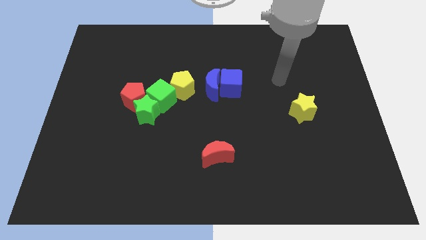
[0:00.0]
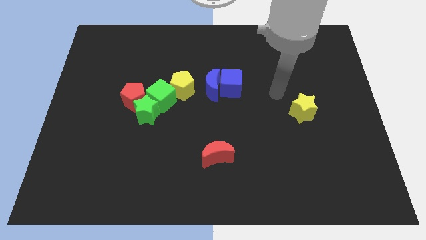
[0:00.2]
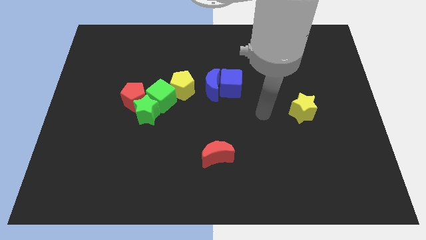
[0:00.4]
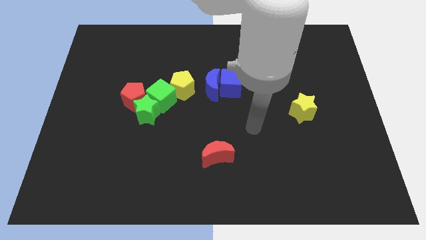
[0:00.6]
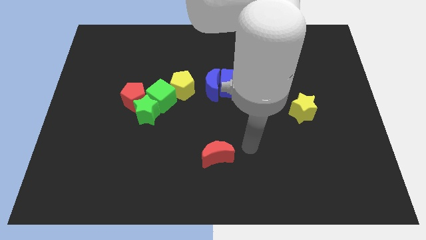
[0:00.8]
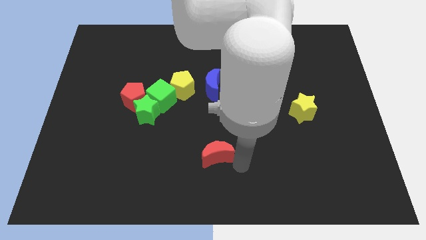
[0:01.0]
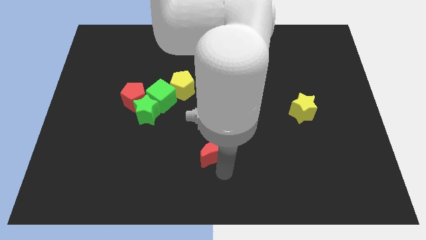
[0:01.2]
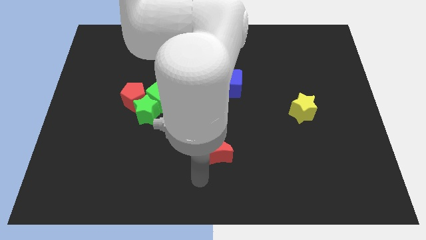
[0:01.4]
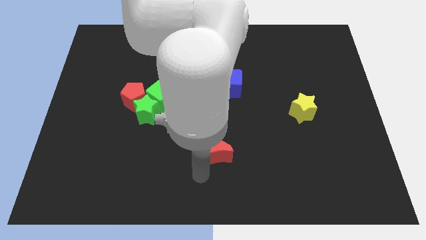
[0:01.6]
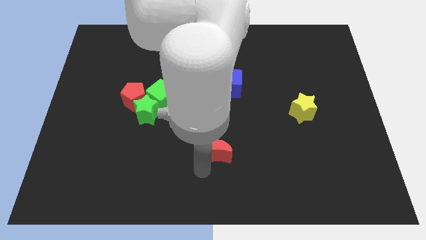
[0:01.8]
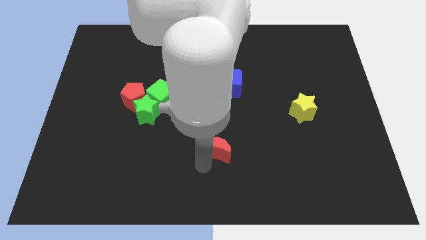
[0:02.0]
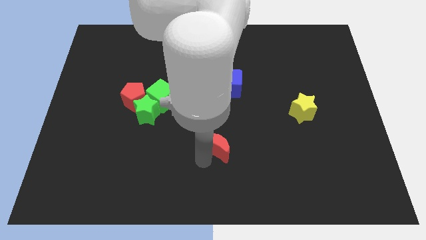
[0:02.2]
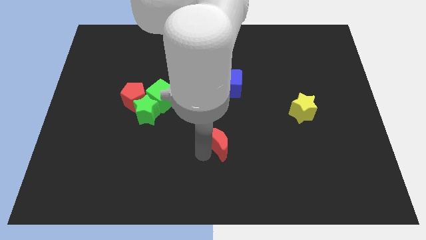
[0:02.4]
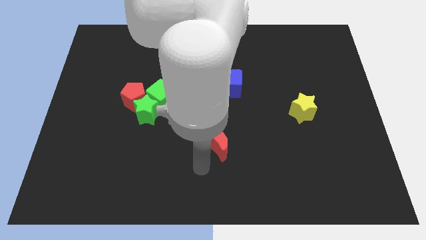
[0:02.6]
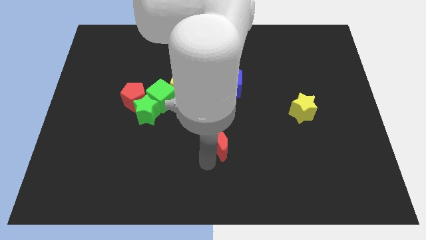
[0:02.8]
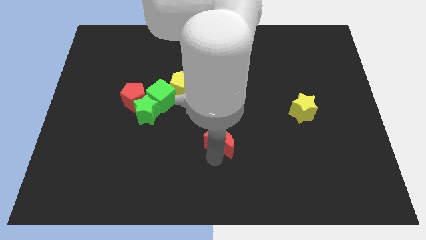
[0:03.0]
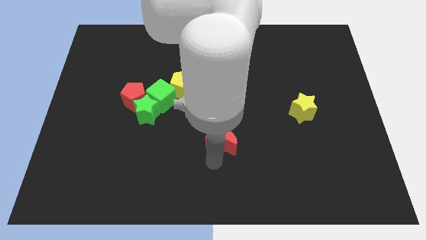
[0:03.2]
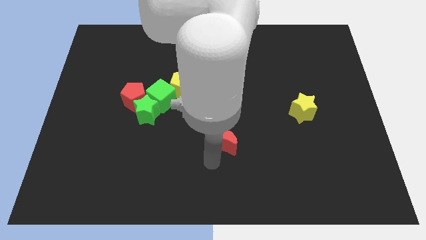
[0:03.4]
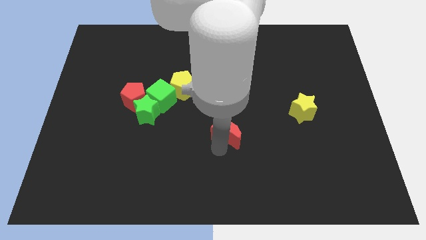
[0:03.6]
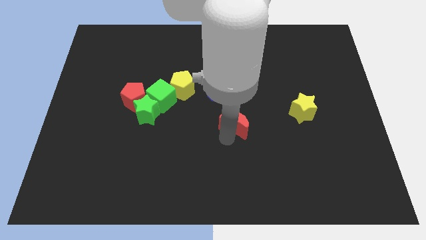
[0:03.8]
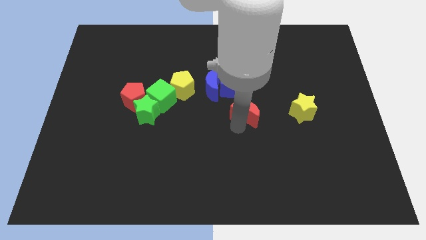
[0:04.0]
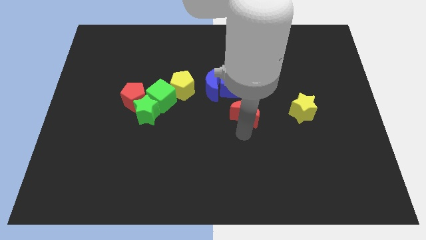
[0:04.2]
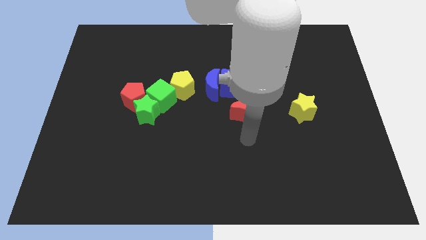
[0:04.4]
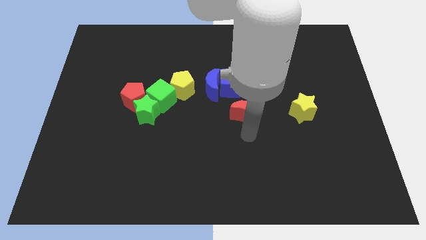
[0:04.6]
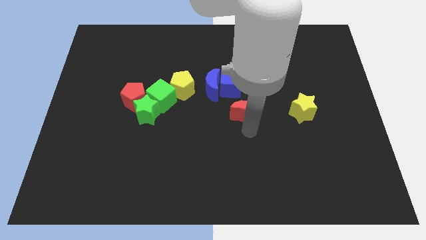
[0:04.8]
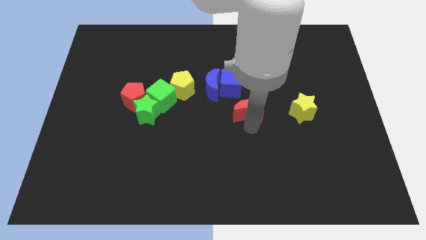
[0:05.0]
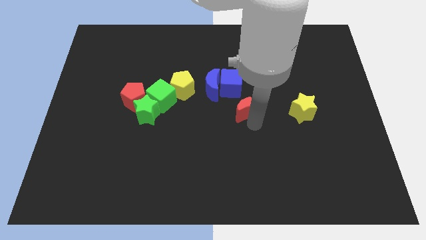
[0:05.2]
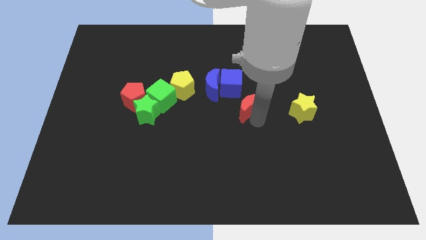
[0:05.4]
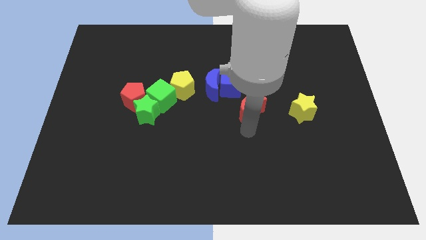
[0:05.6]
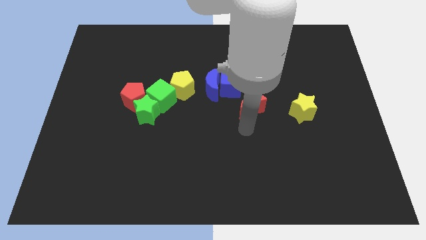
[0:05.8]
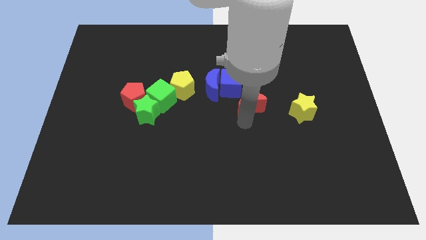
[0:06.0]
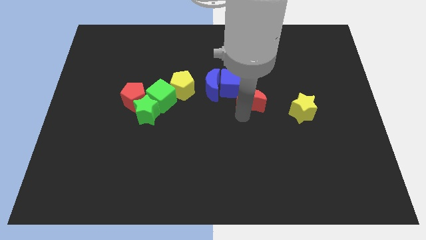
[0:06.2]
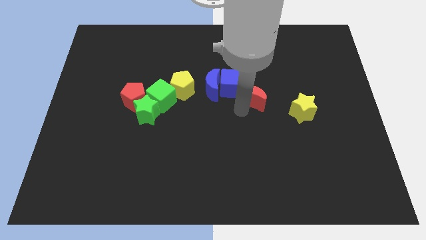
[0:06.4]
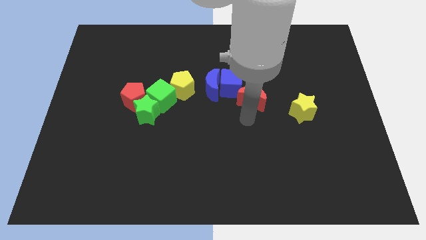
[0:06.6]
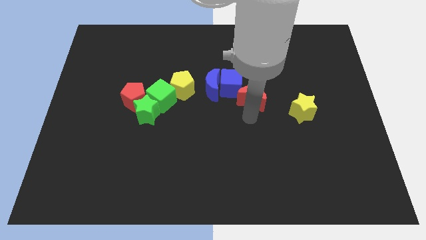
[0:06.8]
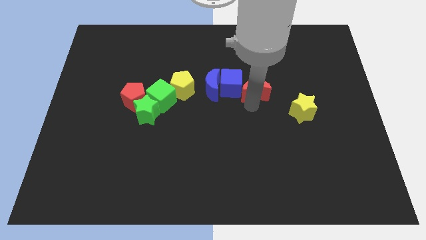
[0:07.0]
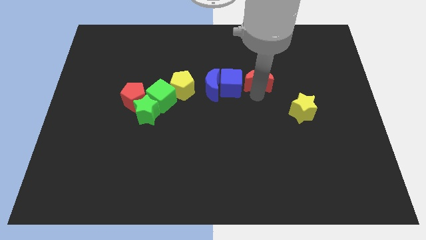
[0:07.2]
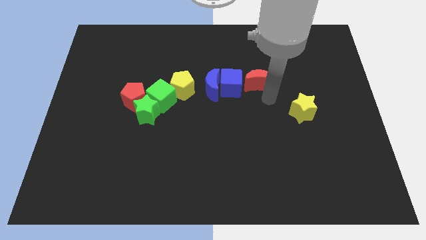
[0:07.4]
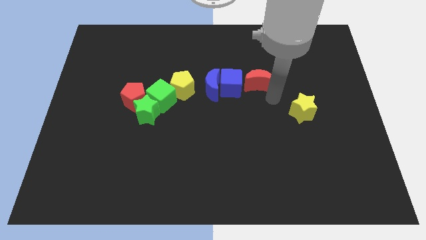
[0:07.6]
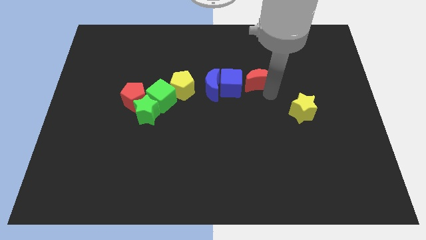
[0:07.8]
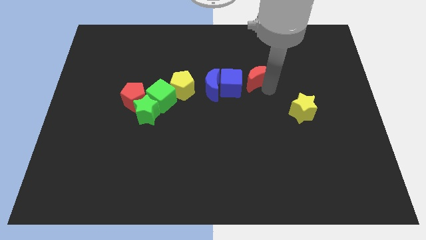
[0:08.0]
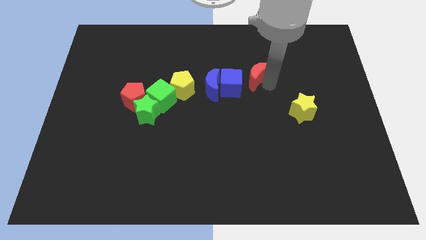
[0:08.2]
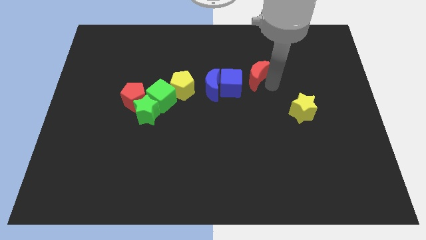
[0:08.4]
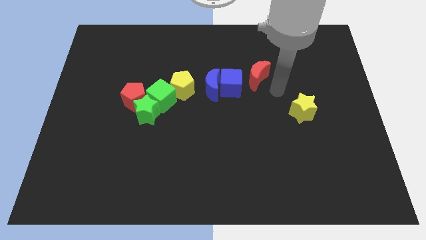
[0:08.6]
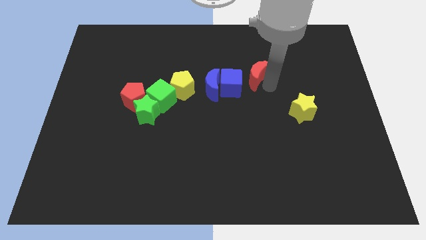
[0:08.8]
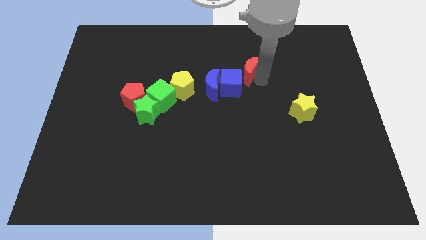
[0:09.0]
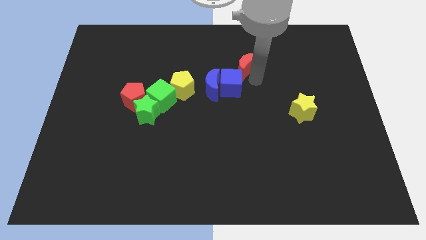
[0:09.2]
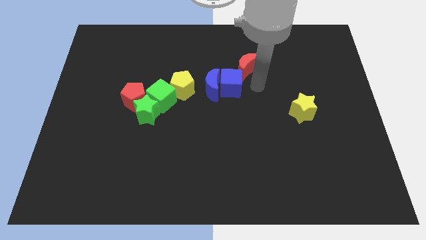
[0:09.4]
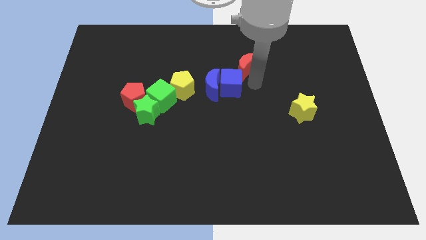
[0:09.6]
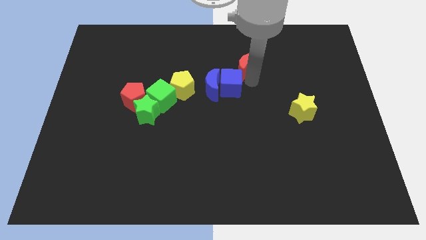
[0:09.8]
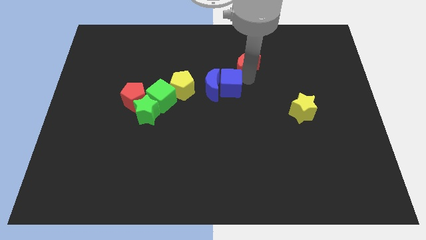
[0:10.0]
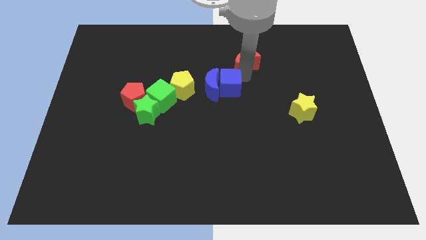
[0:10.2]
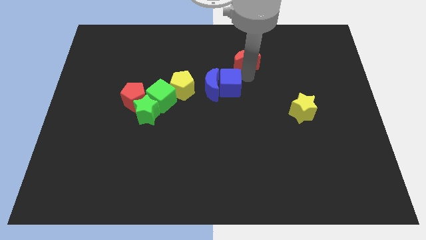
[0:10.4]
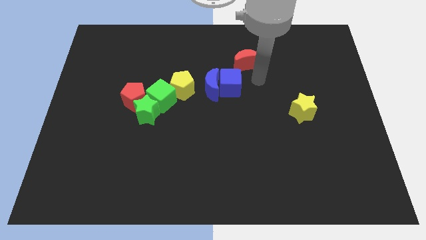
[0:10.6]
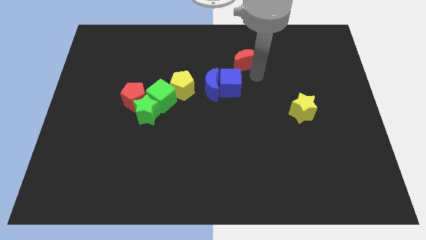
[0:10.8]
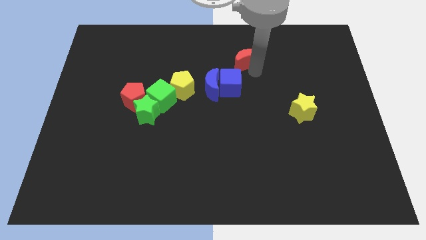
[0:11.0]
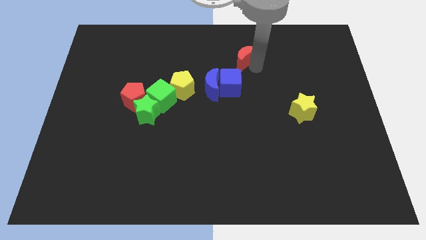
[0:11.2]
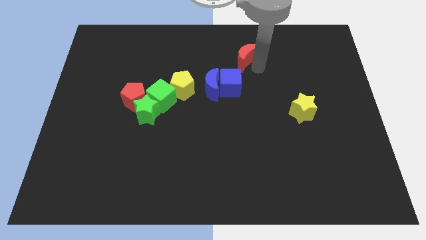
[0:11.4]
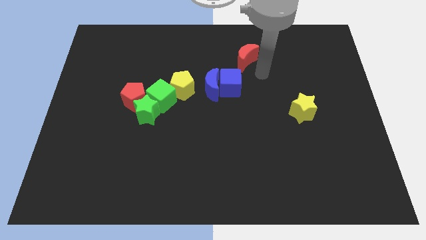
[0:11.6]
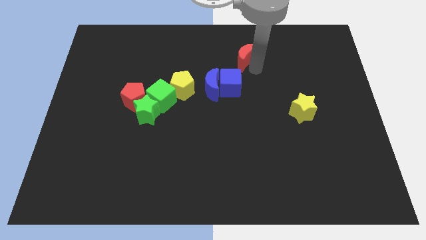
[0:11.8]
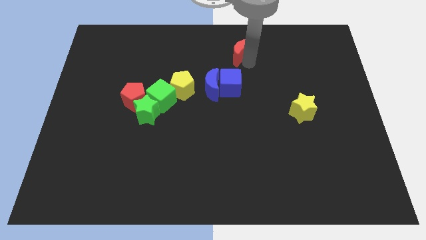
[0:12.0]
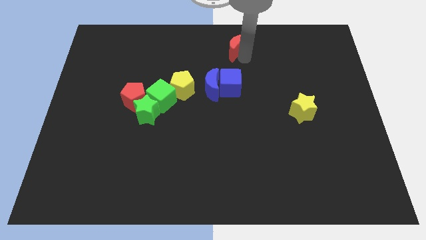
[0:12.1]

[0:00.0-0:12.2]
slide the red moon to the towards your base

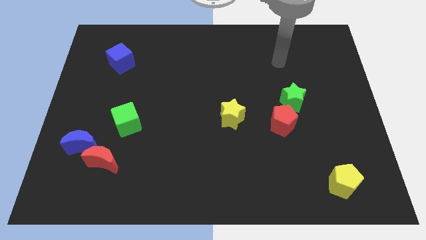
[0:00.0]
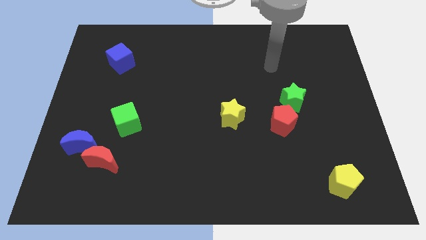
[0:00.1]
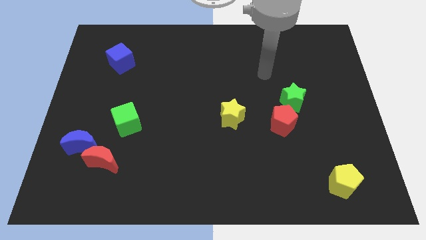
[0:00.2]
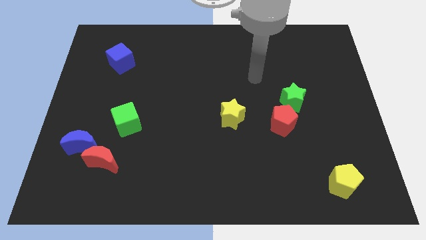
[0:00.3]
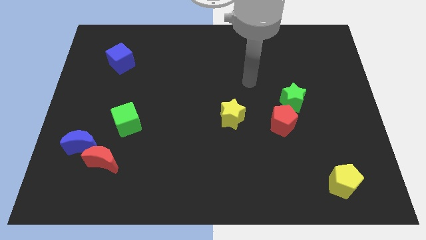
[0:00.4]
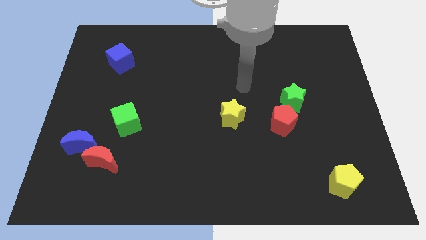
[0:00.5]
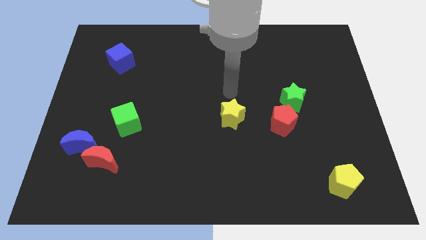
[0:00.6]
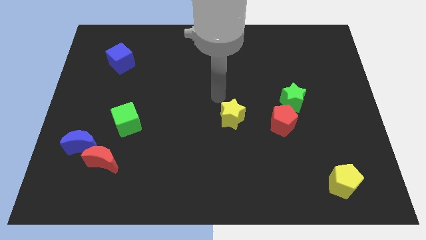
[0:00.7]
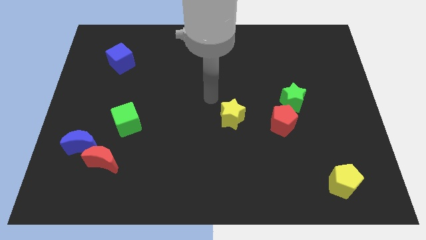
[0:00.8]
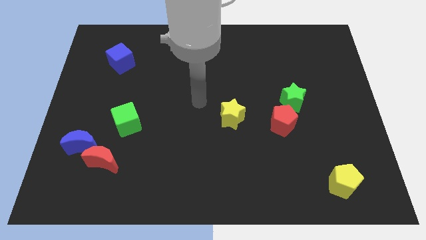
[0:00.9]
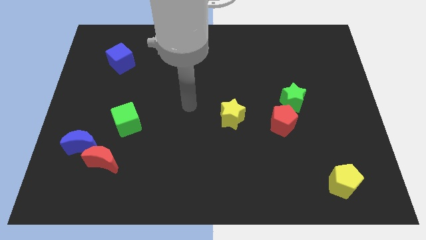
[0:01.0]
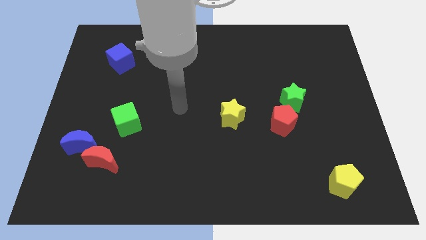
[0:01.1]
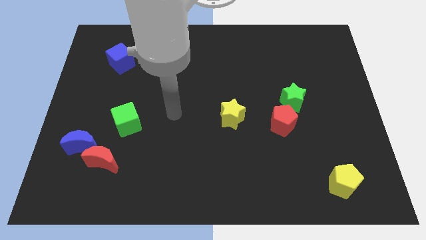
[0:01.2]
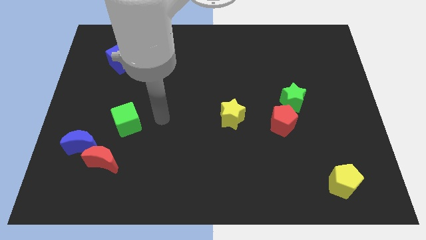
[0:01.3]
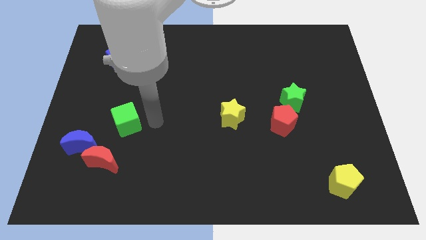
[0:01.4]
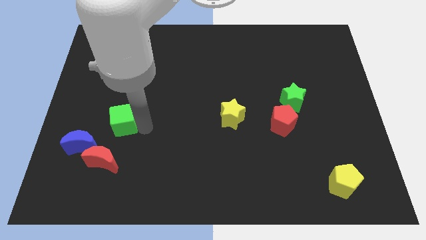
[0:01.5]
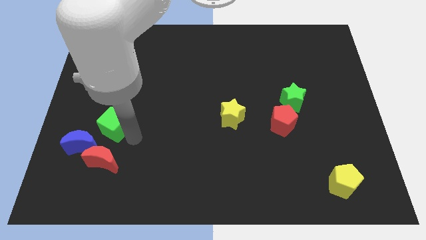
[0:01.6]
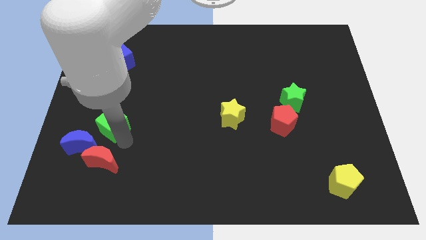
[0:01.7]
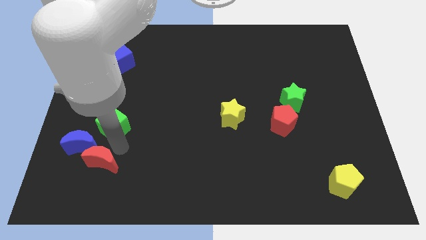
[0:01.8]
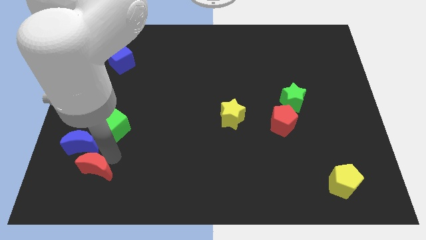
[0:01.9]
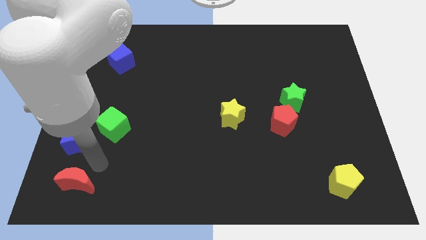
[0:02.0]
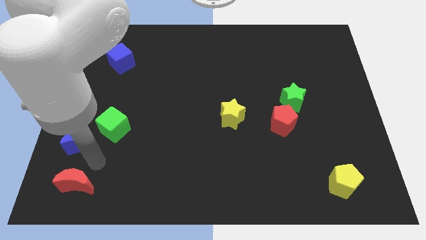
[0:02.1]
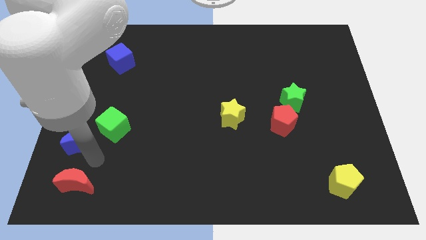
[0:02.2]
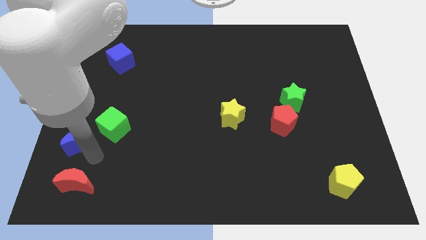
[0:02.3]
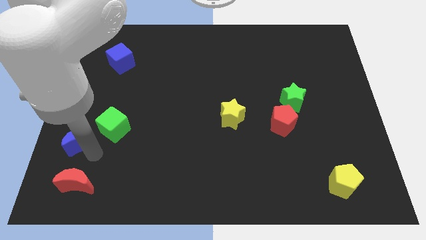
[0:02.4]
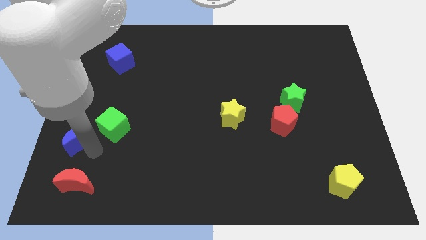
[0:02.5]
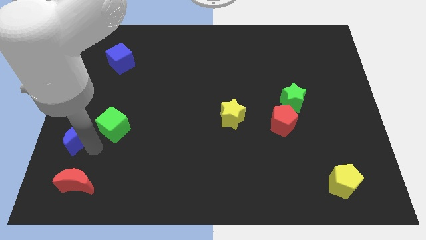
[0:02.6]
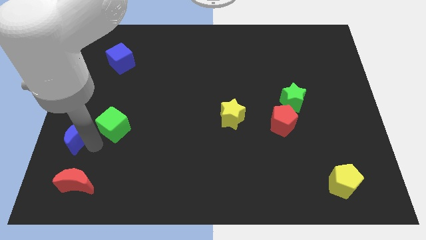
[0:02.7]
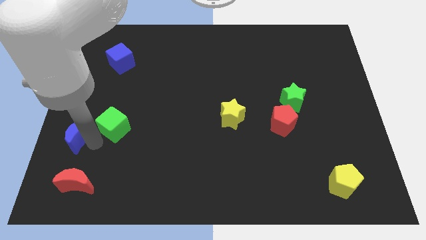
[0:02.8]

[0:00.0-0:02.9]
put the blue moon to the left side
